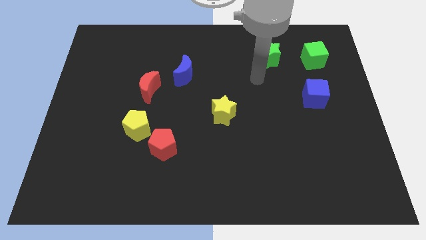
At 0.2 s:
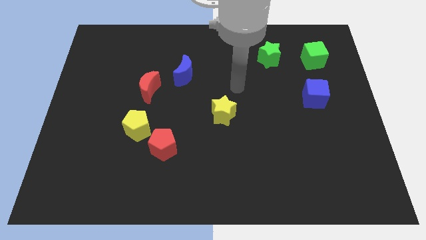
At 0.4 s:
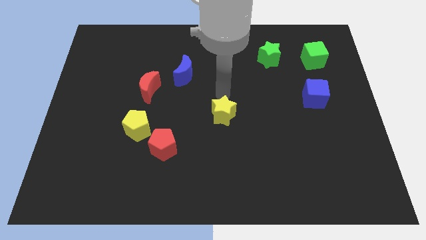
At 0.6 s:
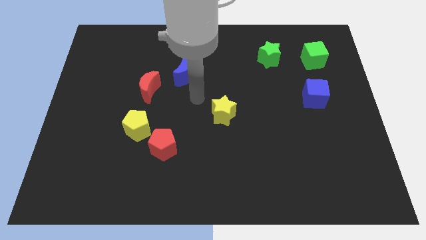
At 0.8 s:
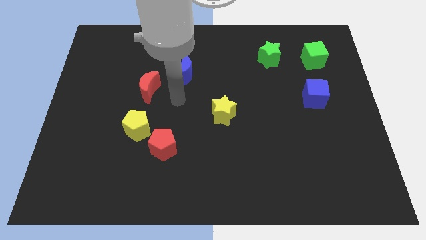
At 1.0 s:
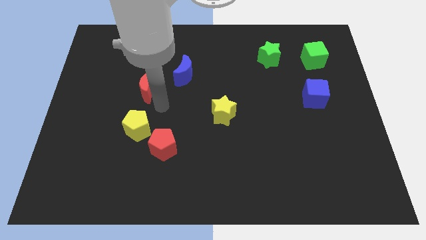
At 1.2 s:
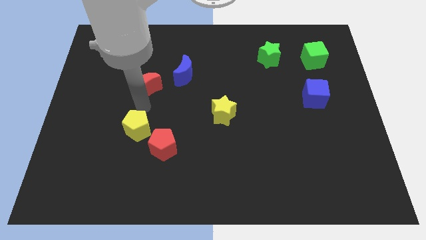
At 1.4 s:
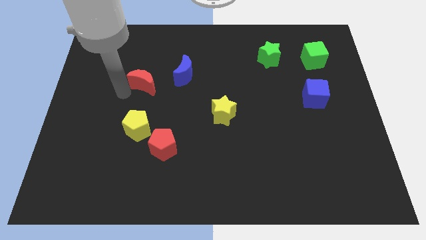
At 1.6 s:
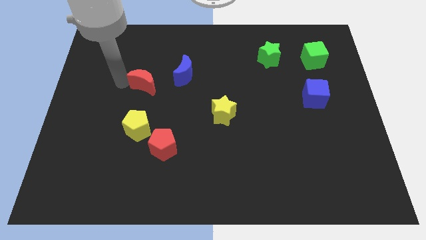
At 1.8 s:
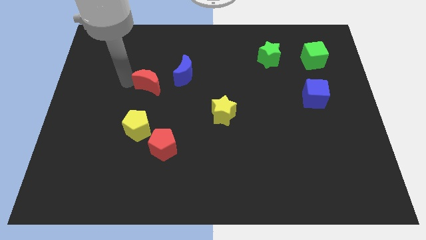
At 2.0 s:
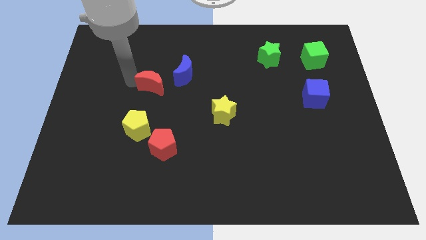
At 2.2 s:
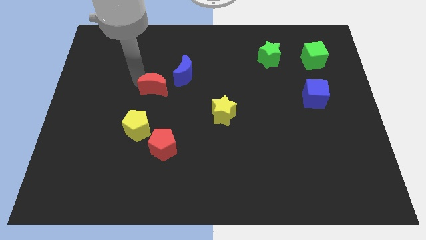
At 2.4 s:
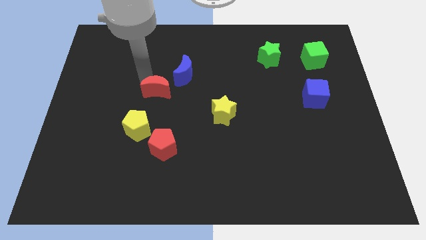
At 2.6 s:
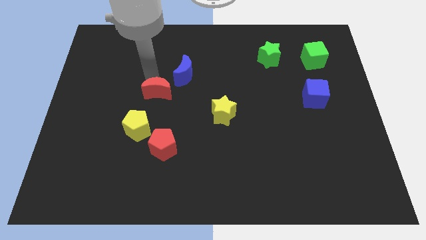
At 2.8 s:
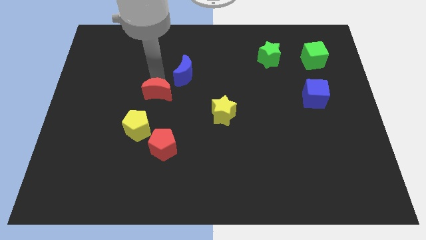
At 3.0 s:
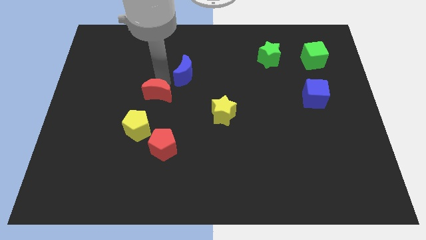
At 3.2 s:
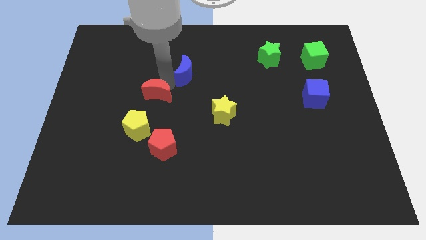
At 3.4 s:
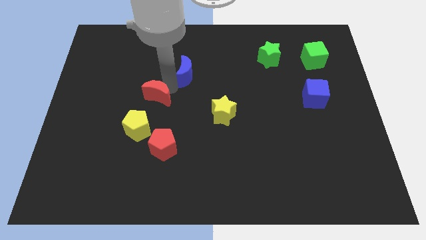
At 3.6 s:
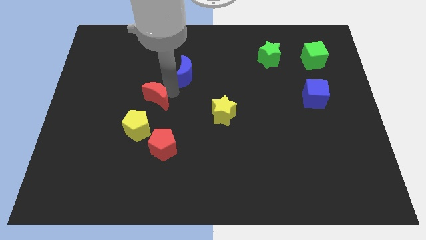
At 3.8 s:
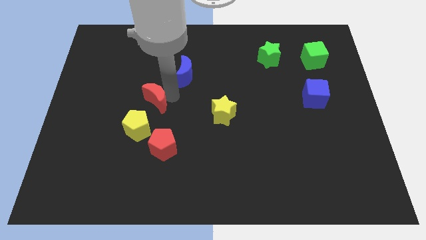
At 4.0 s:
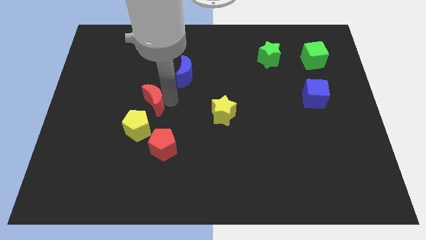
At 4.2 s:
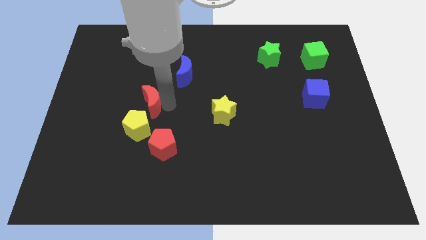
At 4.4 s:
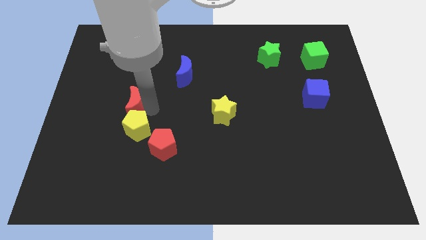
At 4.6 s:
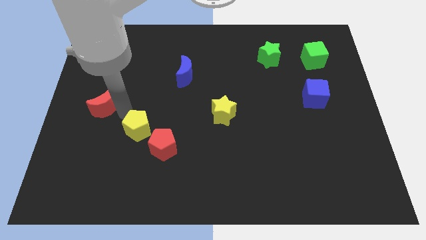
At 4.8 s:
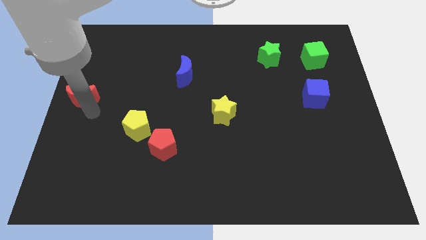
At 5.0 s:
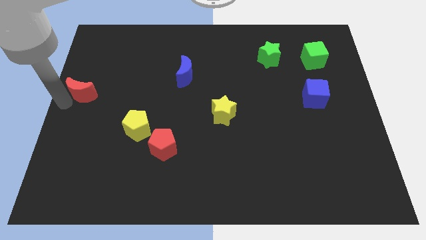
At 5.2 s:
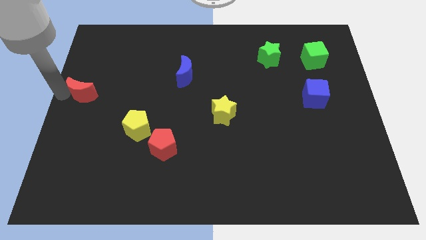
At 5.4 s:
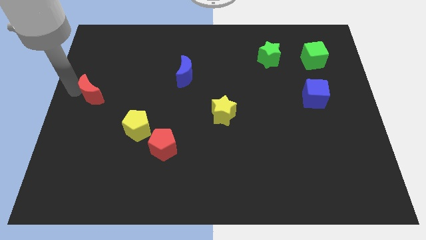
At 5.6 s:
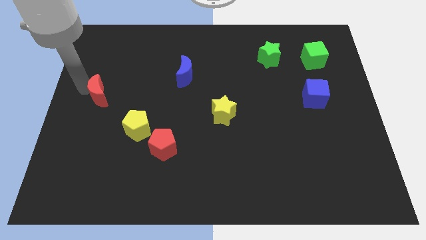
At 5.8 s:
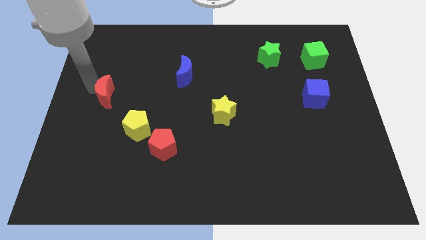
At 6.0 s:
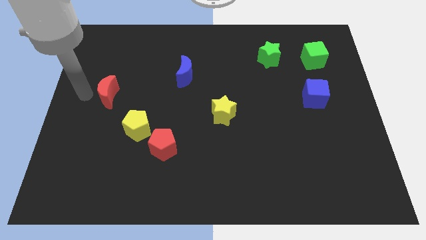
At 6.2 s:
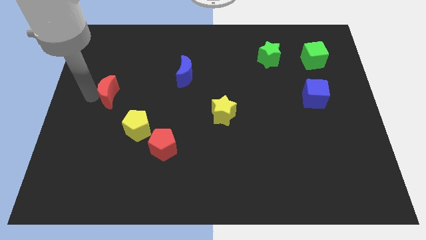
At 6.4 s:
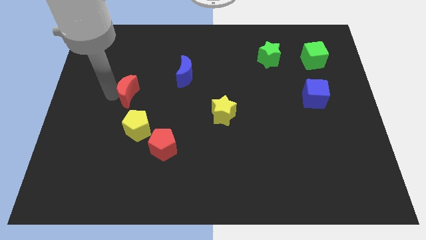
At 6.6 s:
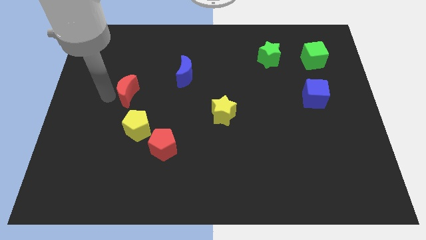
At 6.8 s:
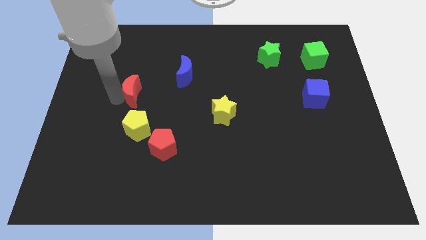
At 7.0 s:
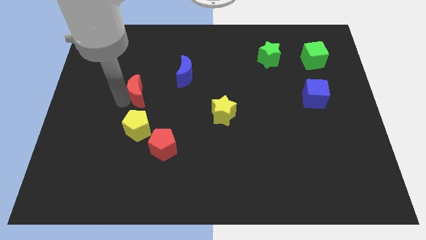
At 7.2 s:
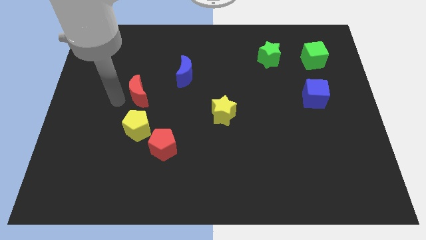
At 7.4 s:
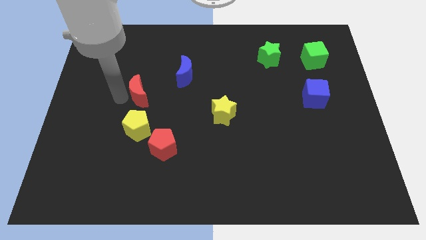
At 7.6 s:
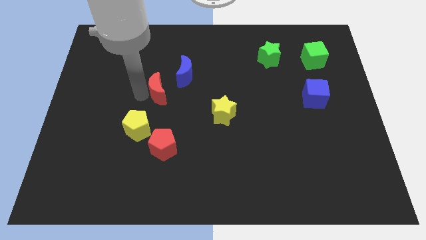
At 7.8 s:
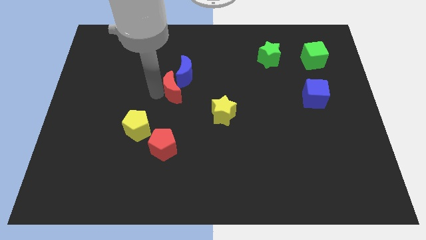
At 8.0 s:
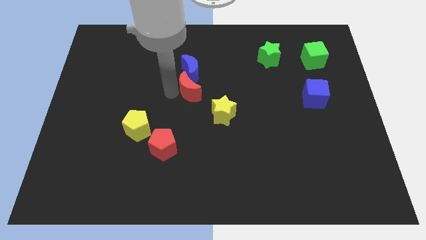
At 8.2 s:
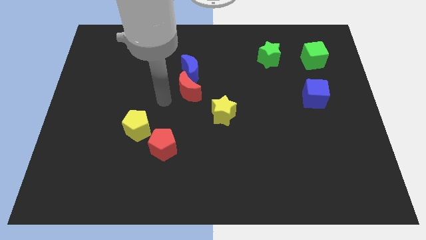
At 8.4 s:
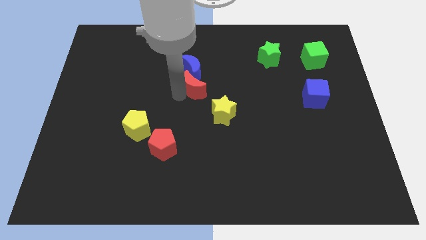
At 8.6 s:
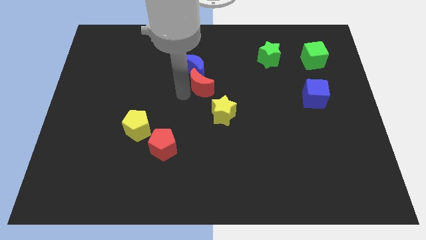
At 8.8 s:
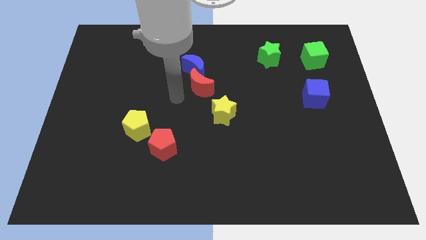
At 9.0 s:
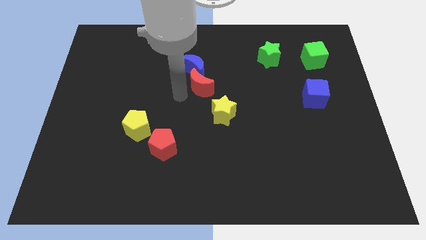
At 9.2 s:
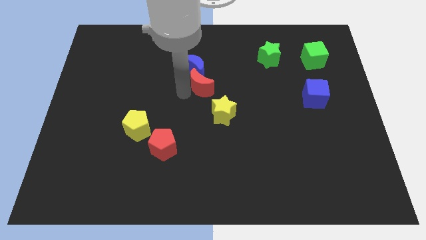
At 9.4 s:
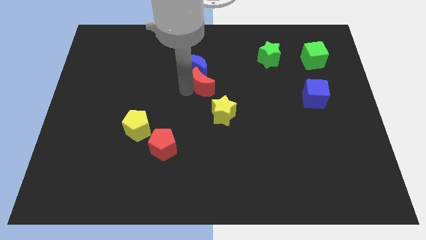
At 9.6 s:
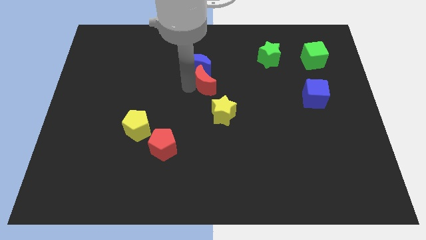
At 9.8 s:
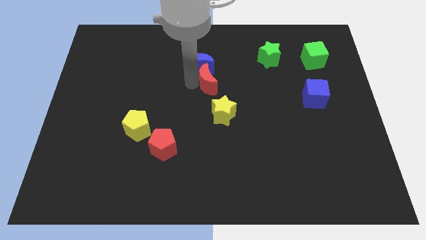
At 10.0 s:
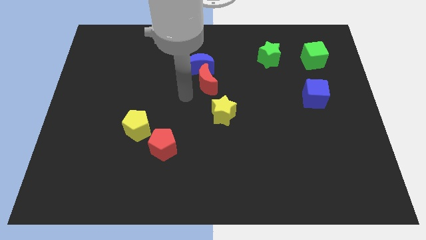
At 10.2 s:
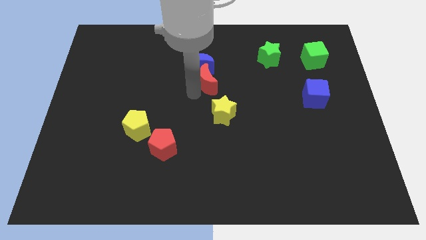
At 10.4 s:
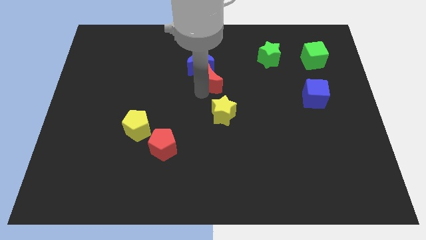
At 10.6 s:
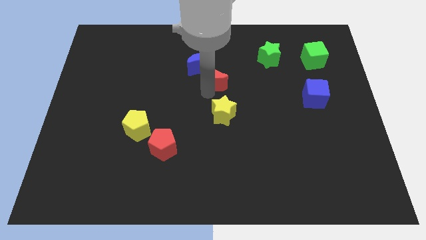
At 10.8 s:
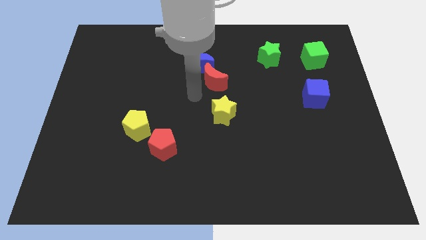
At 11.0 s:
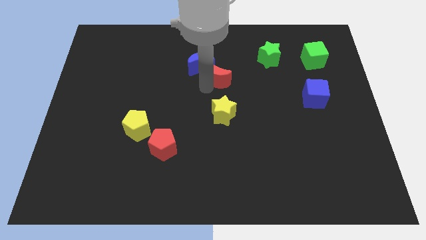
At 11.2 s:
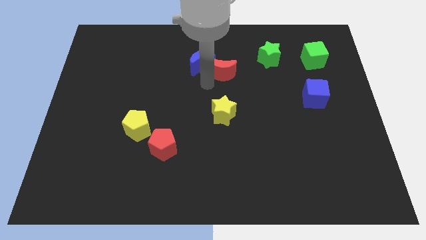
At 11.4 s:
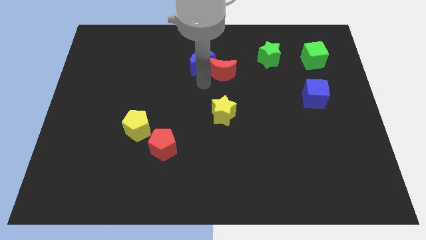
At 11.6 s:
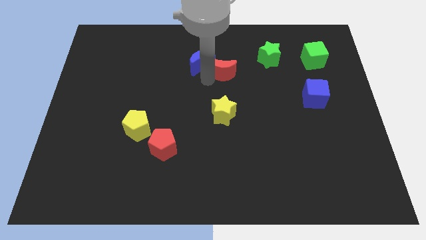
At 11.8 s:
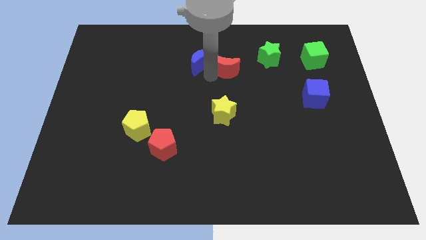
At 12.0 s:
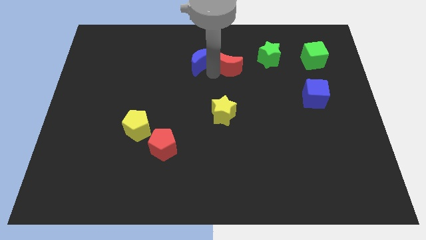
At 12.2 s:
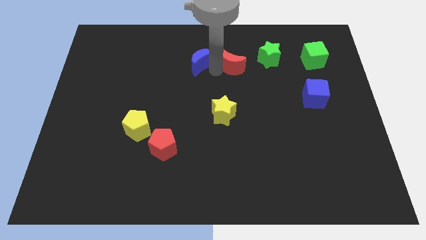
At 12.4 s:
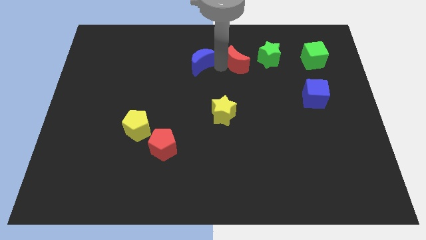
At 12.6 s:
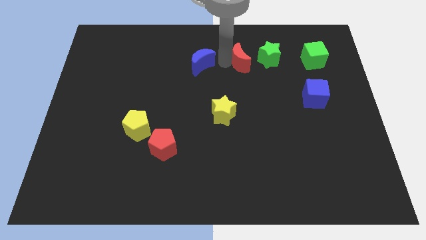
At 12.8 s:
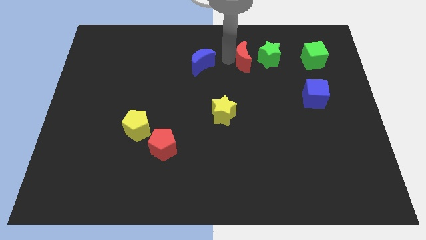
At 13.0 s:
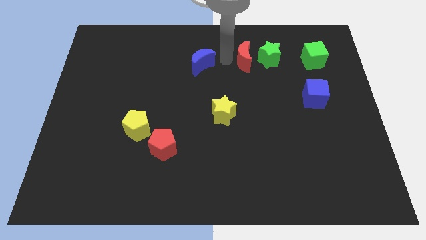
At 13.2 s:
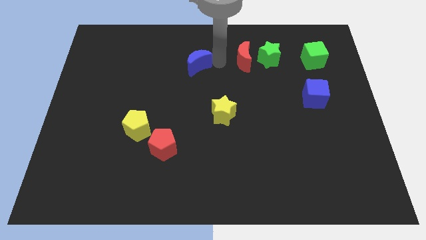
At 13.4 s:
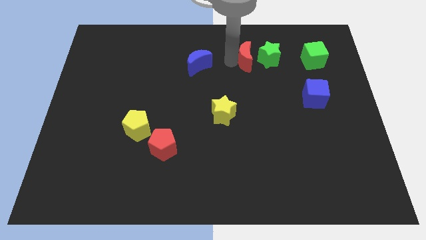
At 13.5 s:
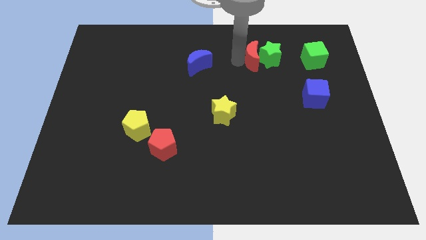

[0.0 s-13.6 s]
move the red moon towards the green star
